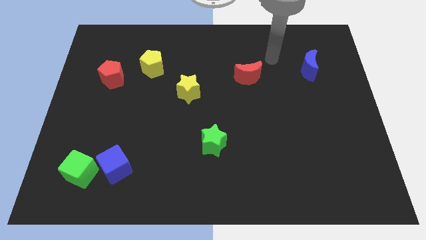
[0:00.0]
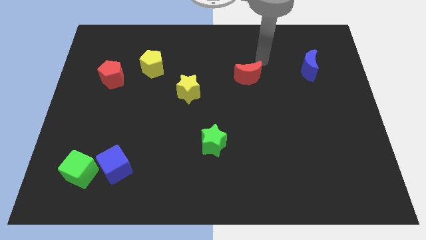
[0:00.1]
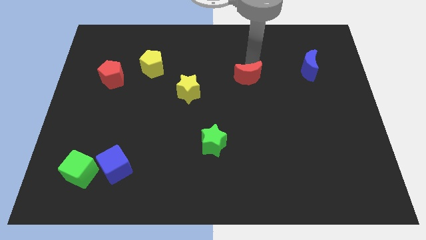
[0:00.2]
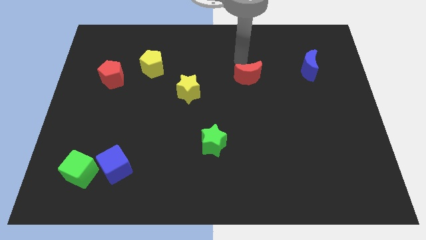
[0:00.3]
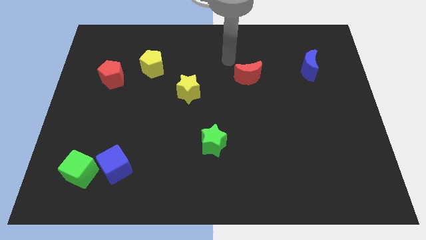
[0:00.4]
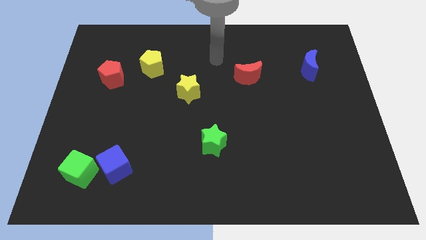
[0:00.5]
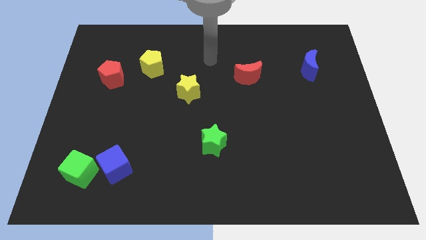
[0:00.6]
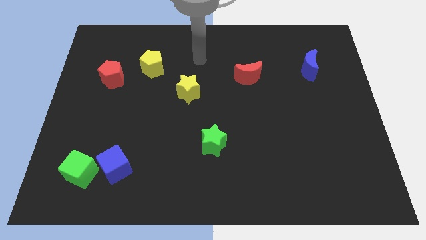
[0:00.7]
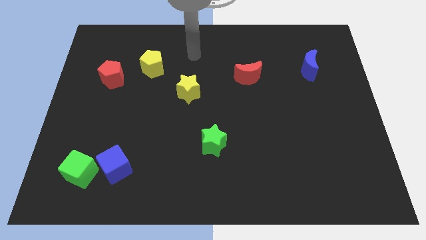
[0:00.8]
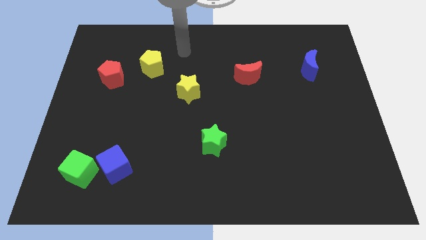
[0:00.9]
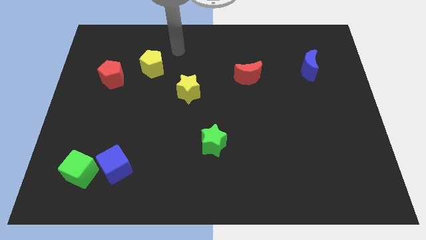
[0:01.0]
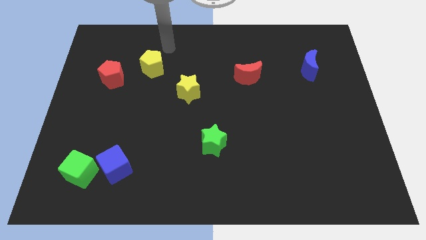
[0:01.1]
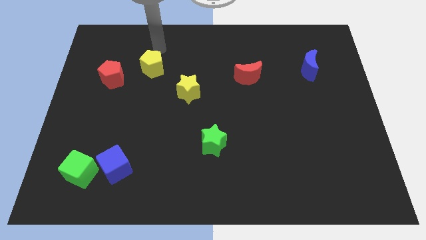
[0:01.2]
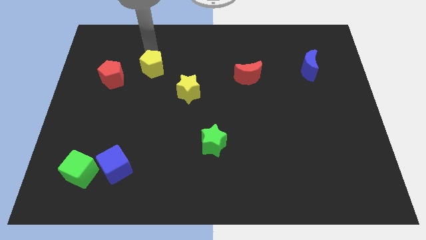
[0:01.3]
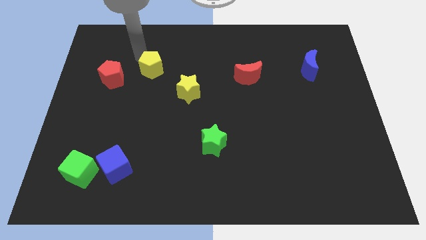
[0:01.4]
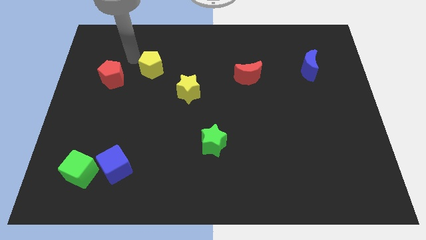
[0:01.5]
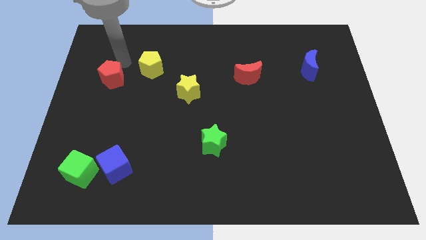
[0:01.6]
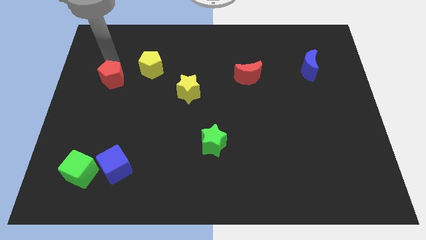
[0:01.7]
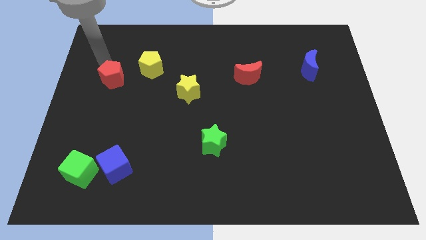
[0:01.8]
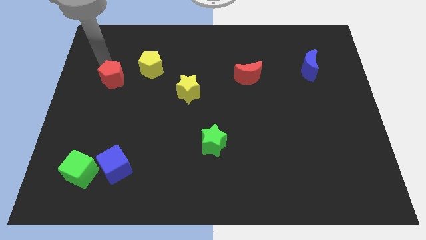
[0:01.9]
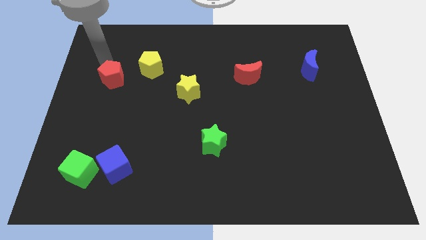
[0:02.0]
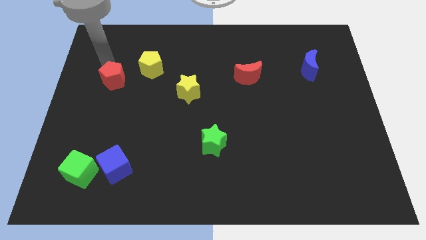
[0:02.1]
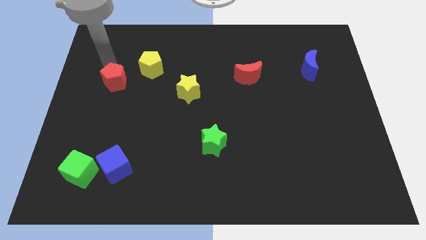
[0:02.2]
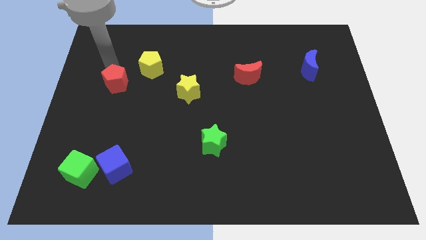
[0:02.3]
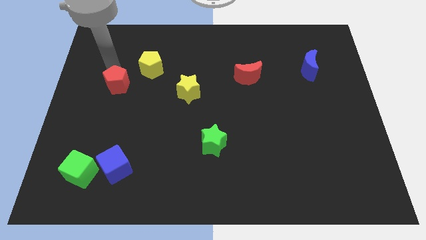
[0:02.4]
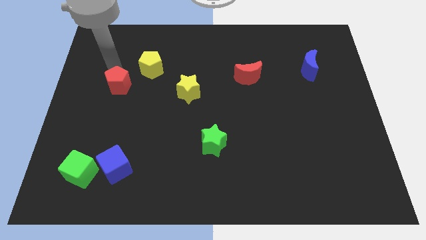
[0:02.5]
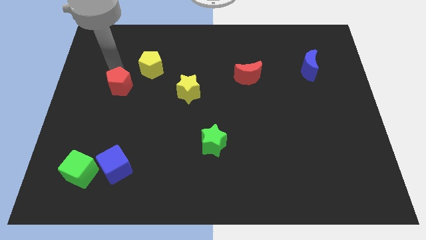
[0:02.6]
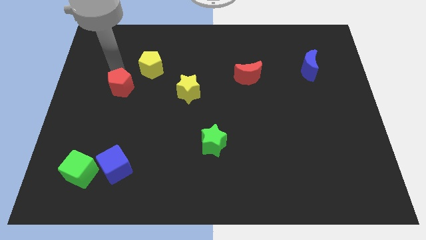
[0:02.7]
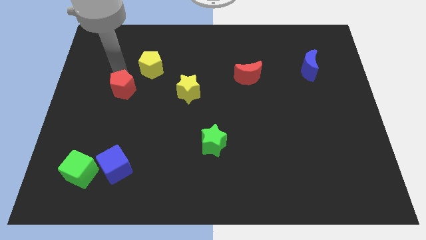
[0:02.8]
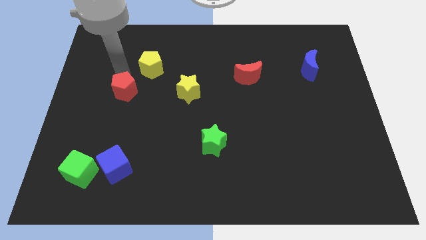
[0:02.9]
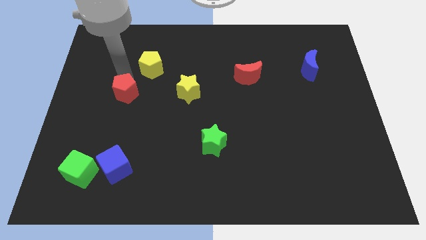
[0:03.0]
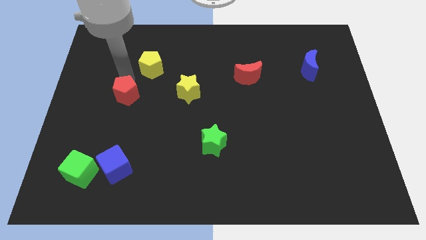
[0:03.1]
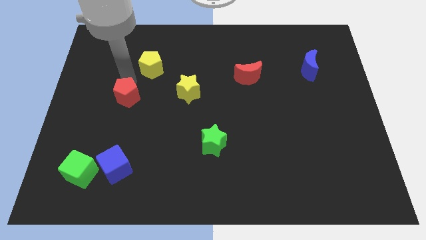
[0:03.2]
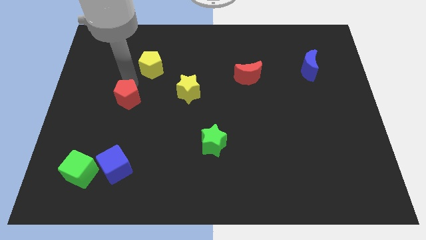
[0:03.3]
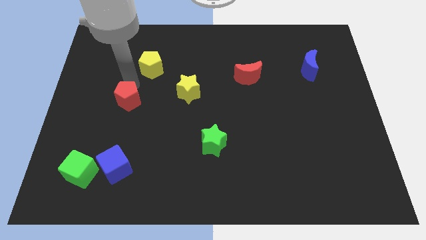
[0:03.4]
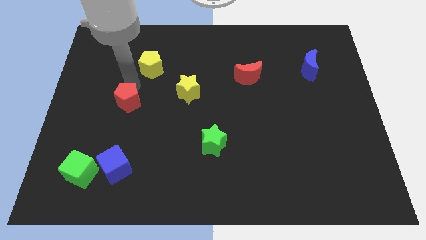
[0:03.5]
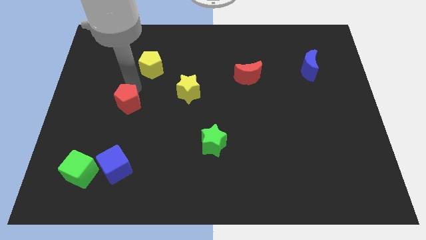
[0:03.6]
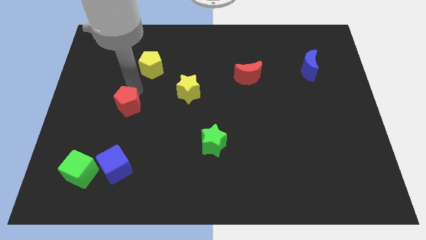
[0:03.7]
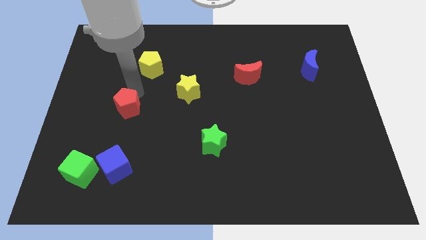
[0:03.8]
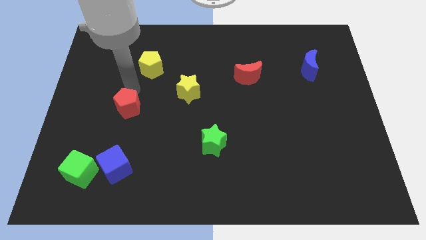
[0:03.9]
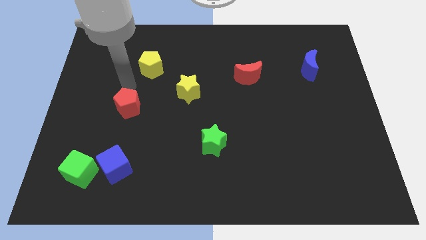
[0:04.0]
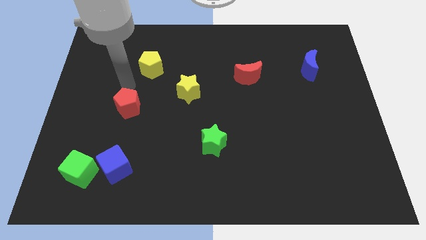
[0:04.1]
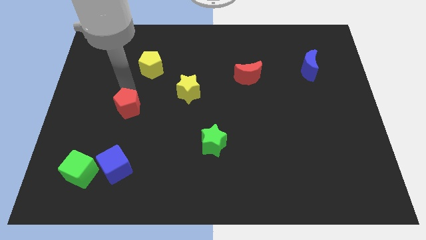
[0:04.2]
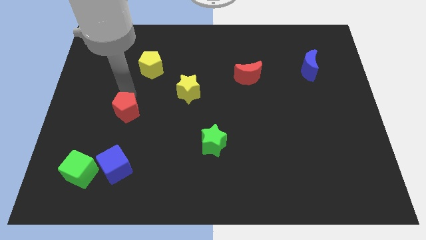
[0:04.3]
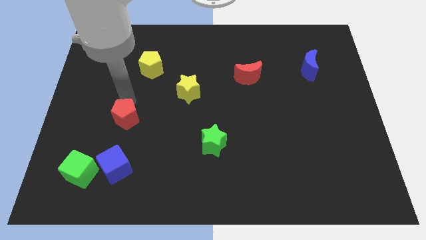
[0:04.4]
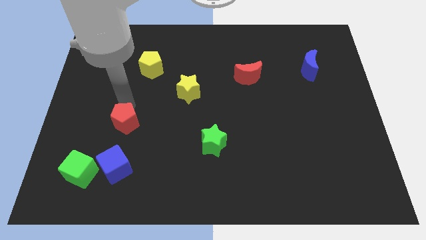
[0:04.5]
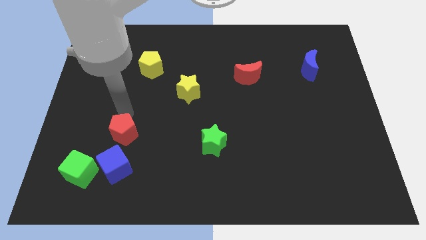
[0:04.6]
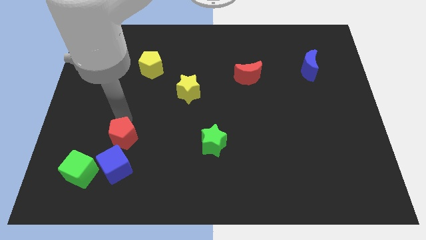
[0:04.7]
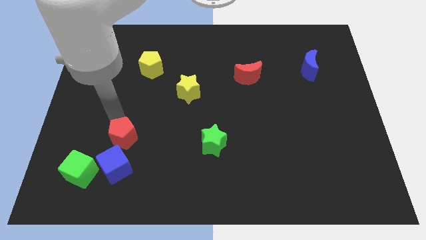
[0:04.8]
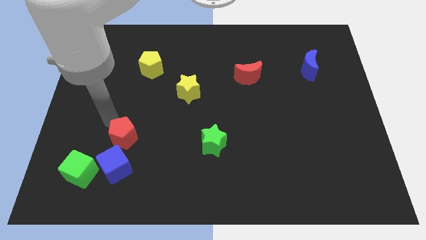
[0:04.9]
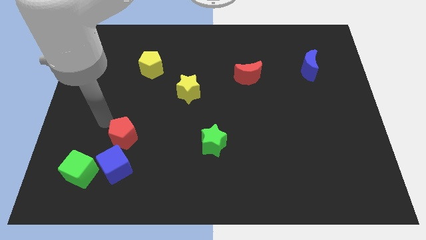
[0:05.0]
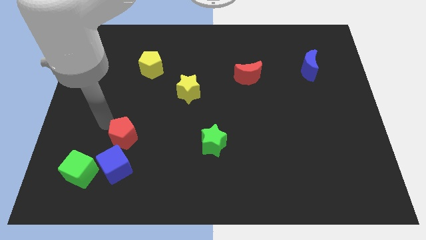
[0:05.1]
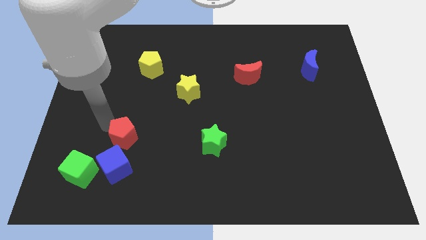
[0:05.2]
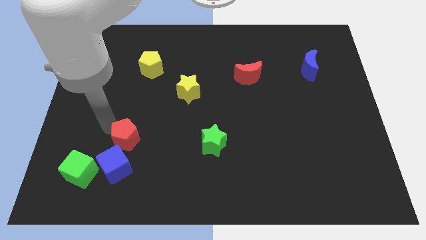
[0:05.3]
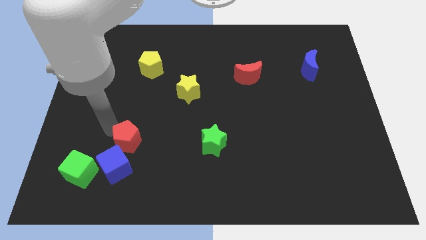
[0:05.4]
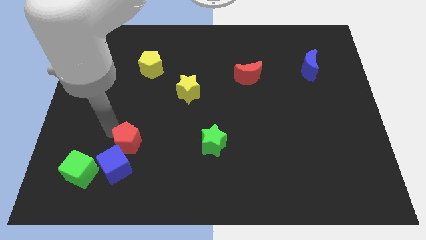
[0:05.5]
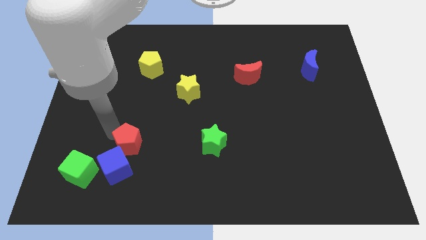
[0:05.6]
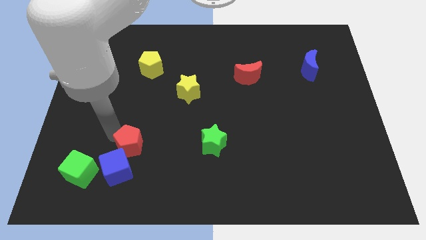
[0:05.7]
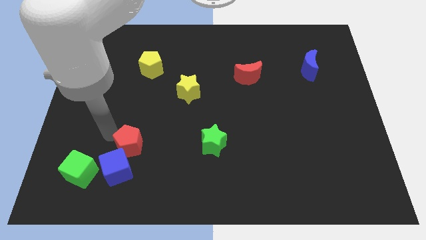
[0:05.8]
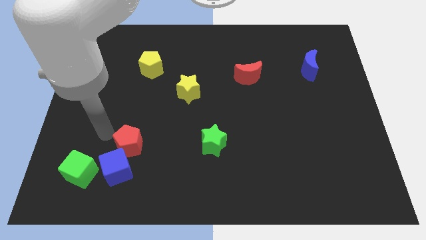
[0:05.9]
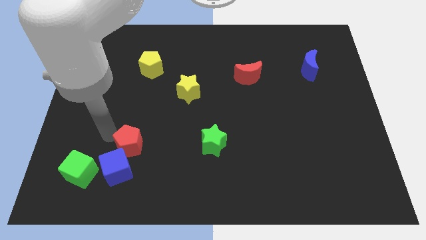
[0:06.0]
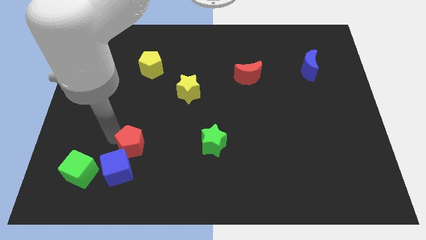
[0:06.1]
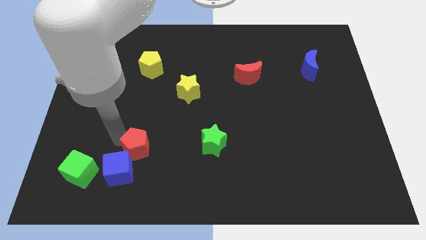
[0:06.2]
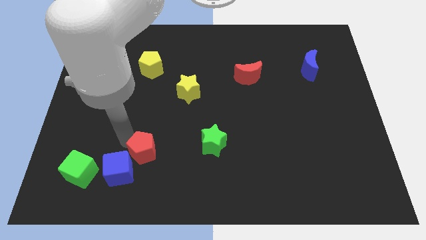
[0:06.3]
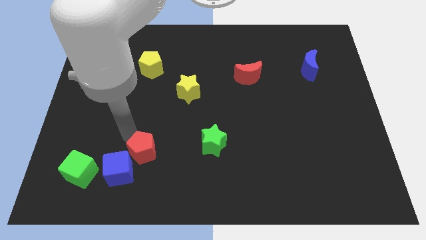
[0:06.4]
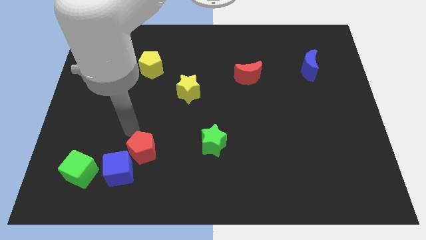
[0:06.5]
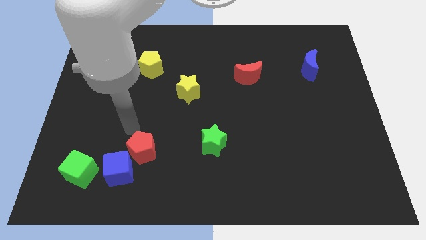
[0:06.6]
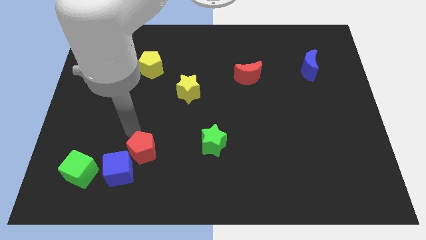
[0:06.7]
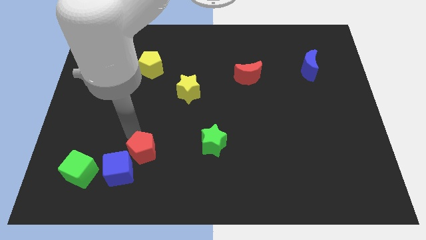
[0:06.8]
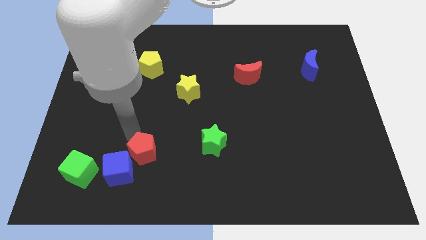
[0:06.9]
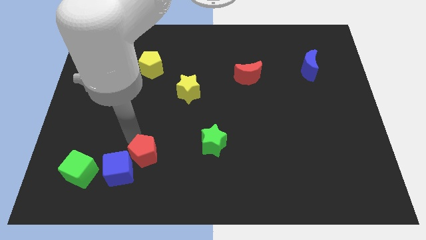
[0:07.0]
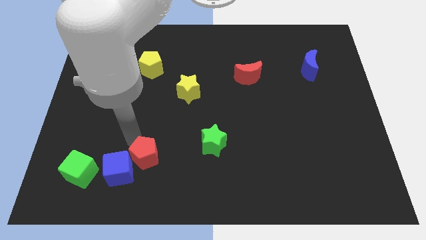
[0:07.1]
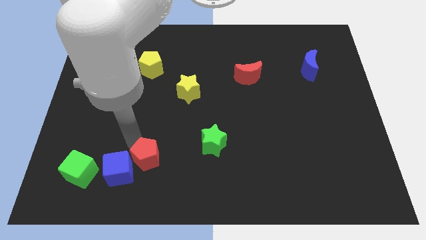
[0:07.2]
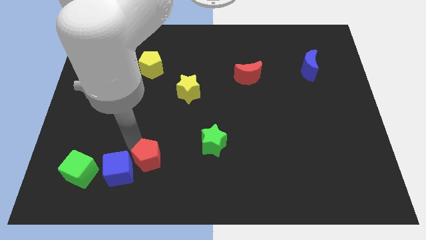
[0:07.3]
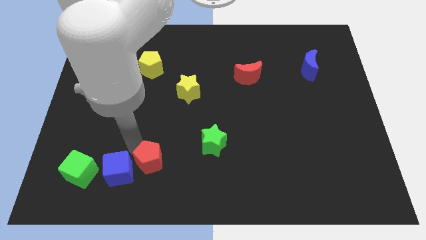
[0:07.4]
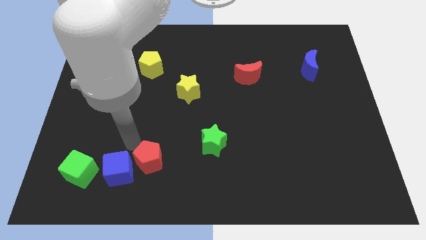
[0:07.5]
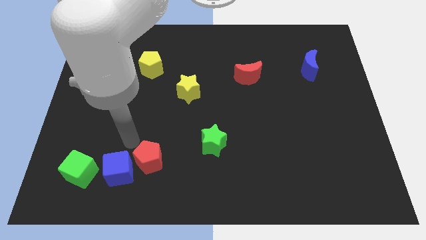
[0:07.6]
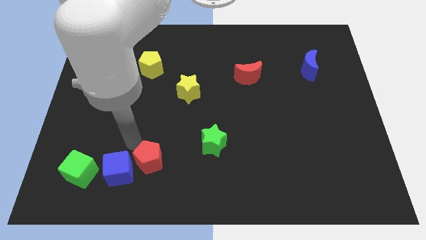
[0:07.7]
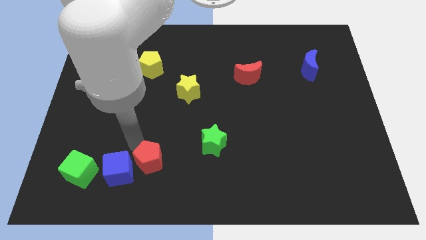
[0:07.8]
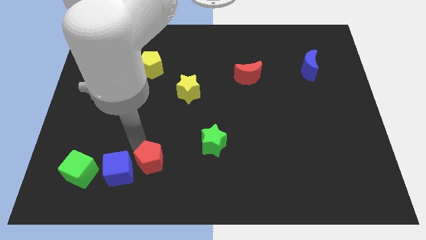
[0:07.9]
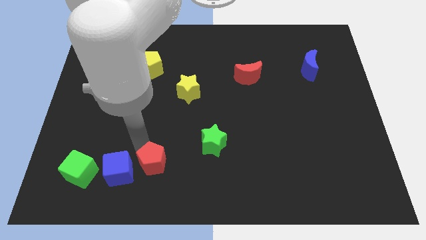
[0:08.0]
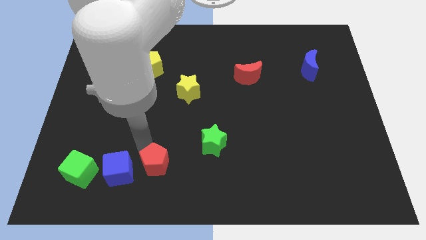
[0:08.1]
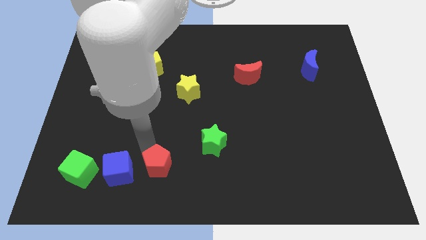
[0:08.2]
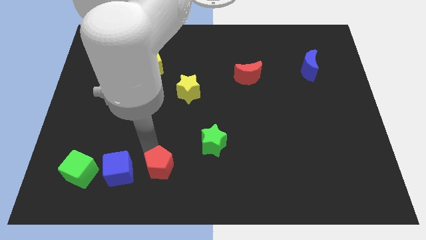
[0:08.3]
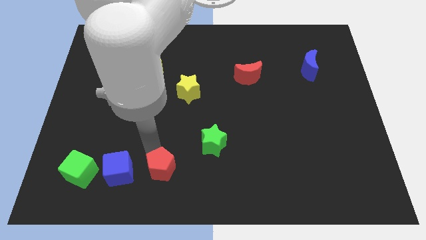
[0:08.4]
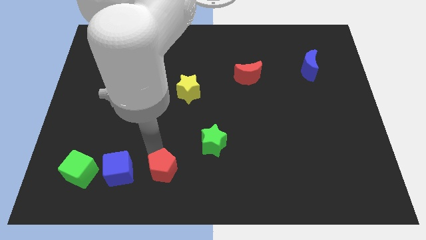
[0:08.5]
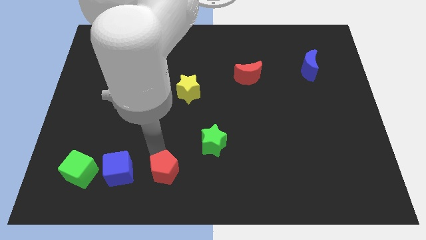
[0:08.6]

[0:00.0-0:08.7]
put the red pentagon to the bottom
